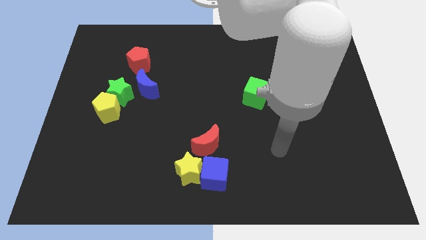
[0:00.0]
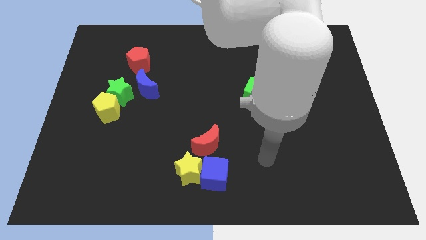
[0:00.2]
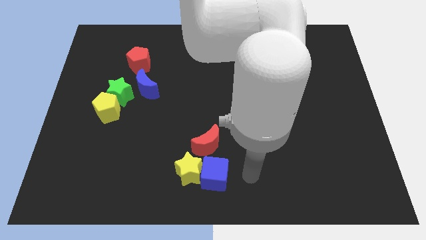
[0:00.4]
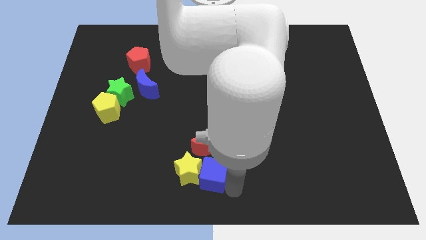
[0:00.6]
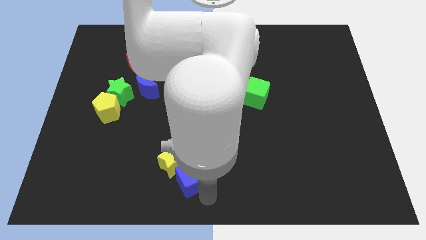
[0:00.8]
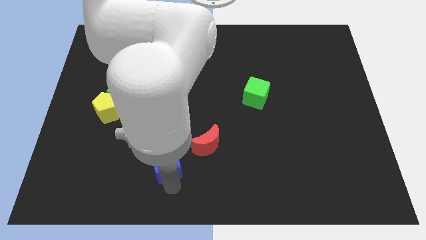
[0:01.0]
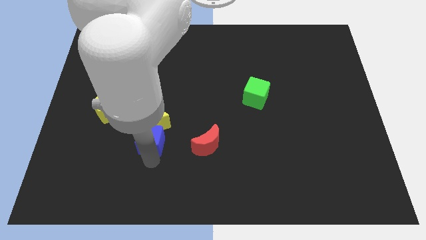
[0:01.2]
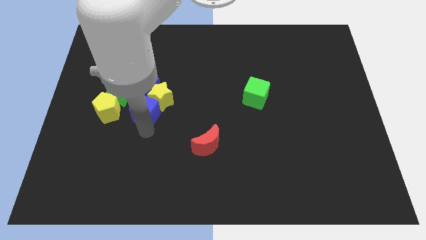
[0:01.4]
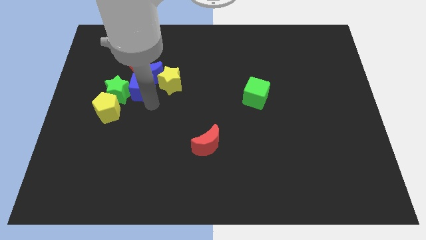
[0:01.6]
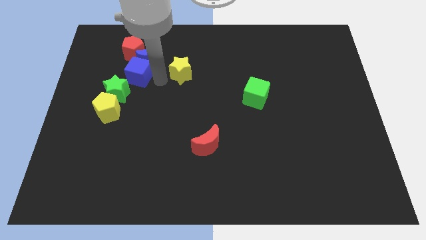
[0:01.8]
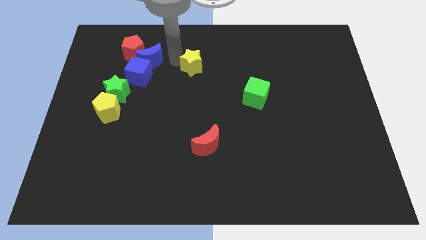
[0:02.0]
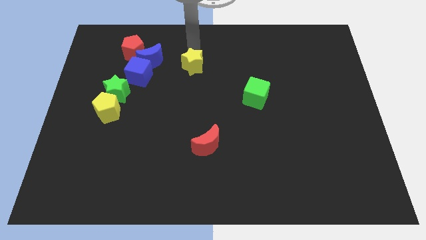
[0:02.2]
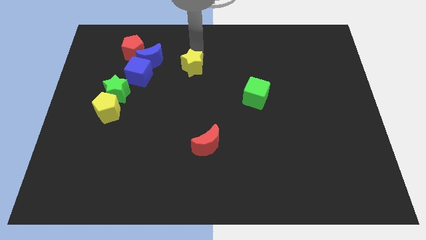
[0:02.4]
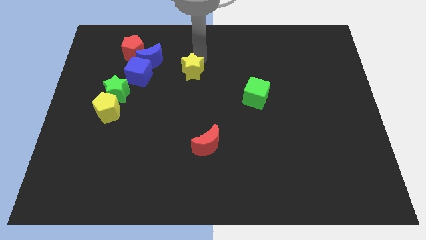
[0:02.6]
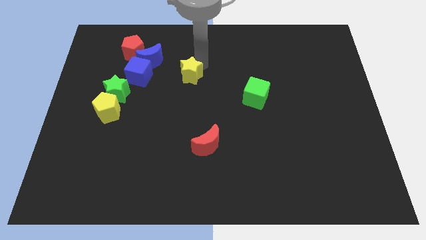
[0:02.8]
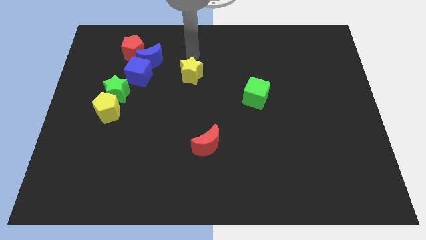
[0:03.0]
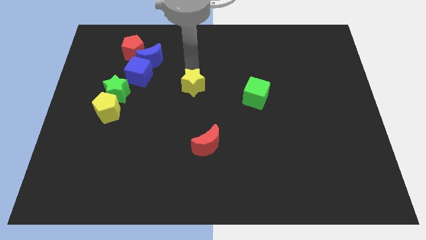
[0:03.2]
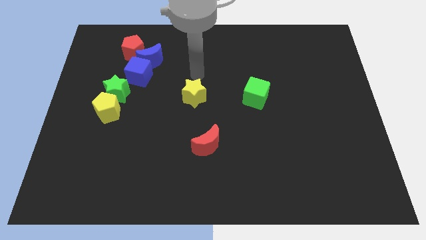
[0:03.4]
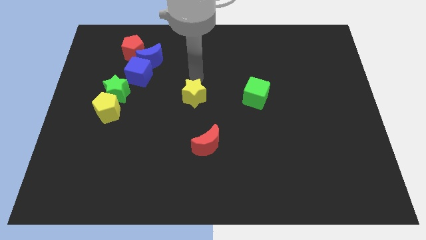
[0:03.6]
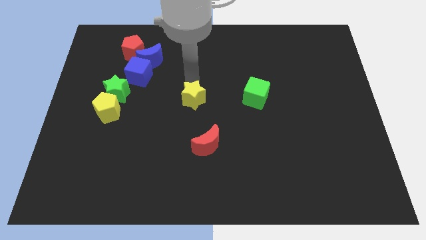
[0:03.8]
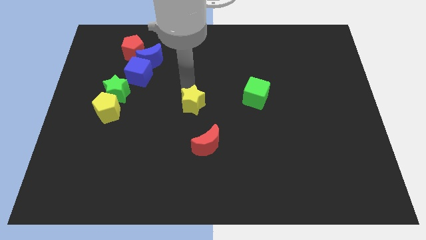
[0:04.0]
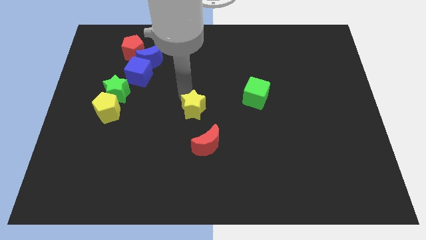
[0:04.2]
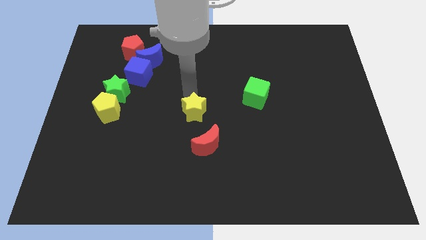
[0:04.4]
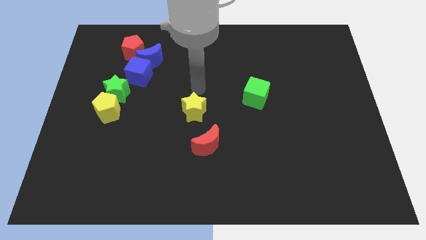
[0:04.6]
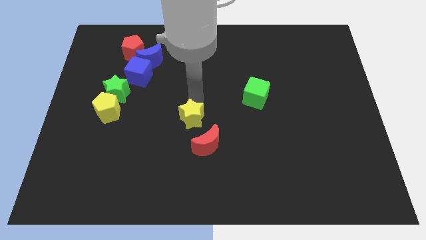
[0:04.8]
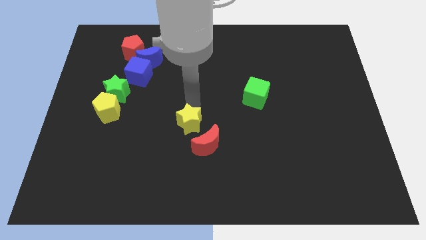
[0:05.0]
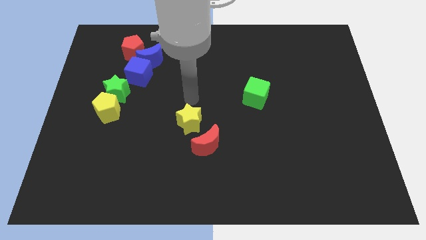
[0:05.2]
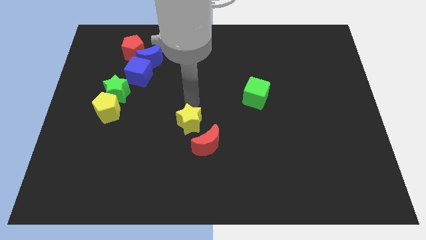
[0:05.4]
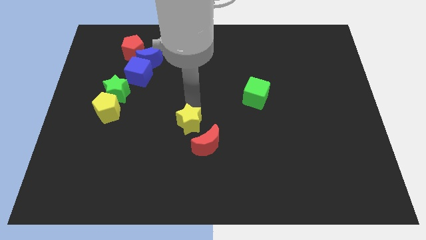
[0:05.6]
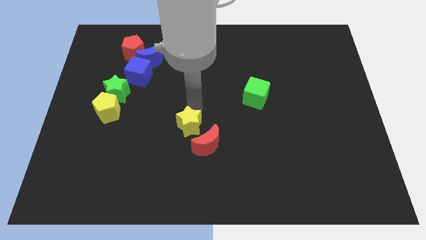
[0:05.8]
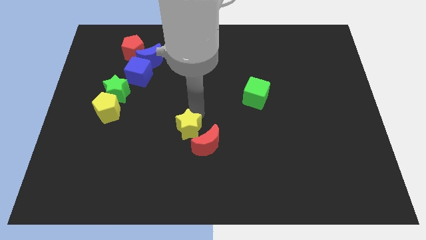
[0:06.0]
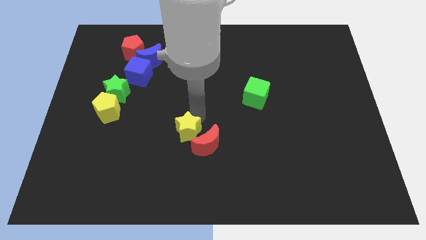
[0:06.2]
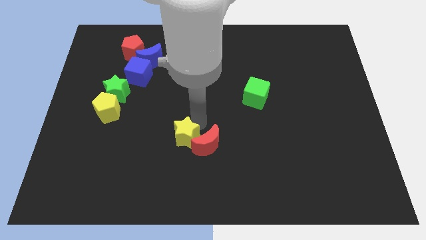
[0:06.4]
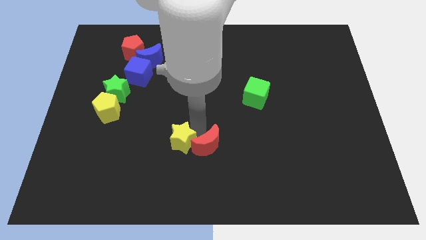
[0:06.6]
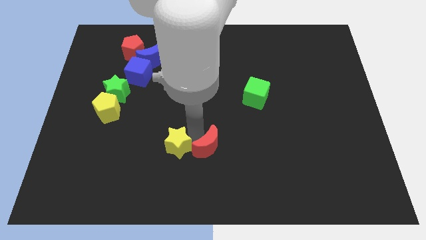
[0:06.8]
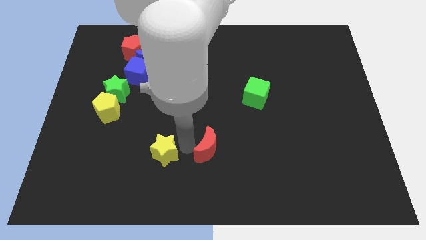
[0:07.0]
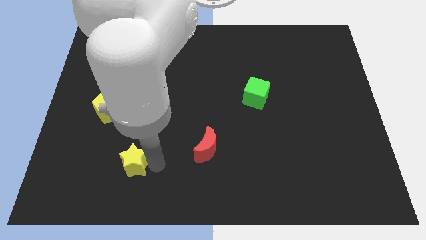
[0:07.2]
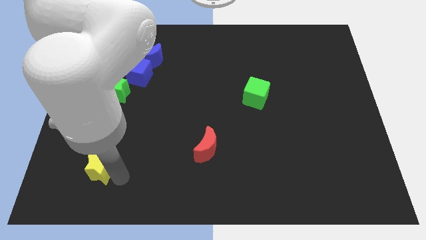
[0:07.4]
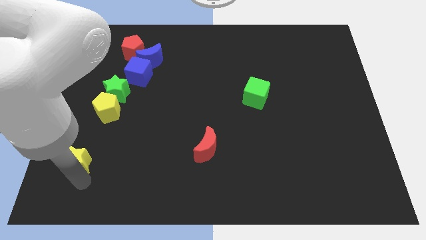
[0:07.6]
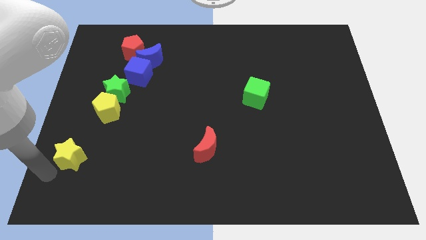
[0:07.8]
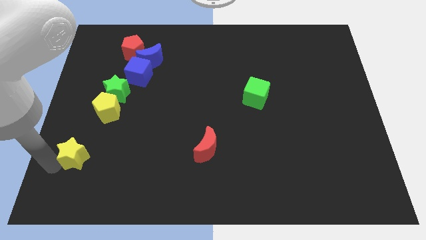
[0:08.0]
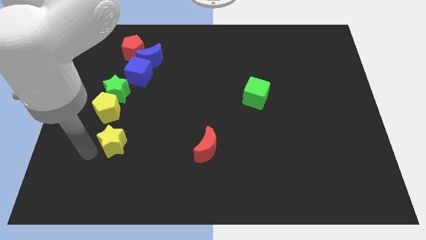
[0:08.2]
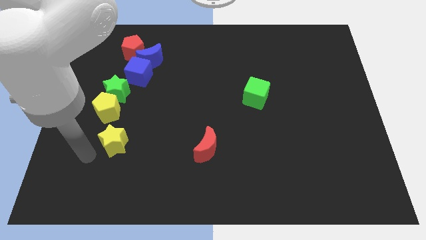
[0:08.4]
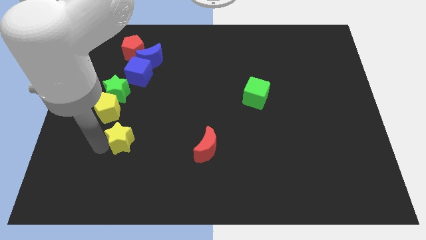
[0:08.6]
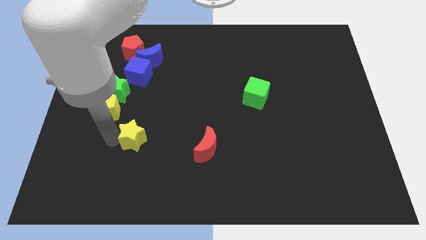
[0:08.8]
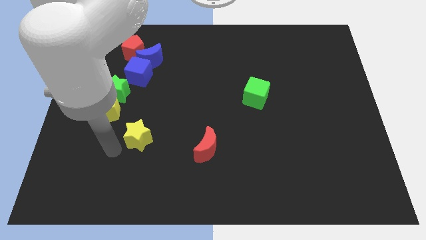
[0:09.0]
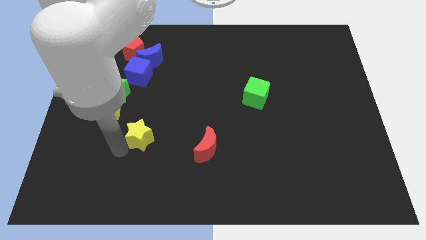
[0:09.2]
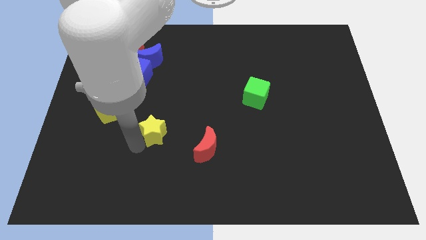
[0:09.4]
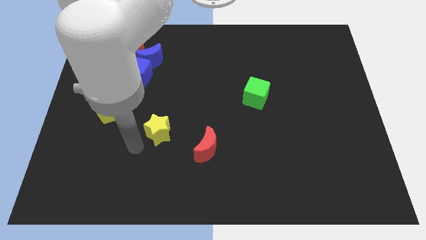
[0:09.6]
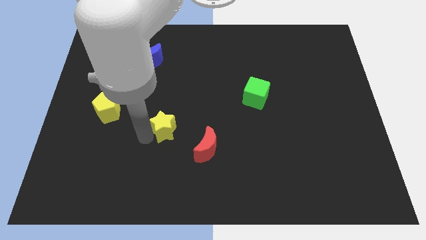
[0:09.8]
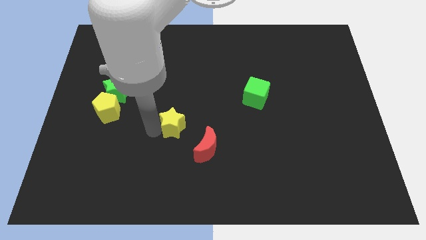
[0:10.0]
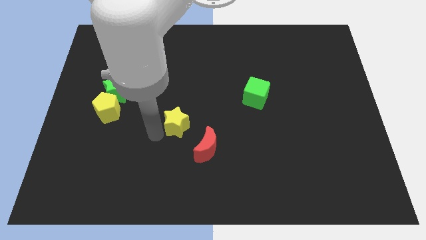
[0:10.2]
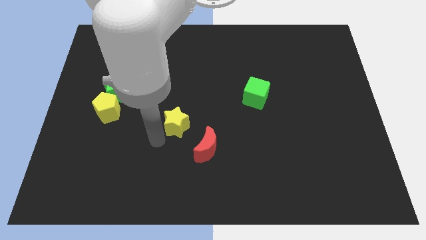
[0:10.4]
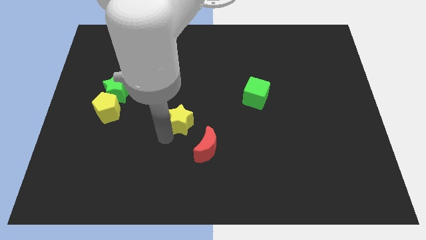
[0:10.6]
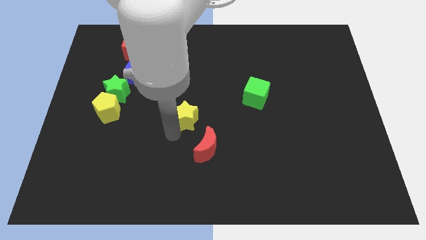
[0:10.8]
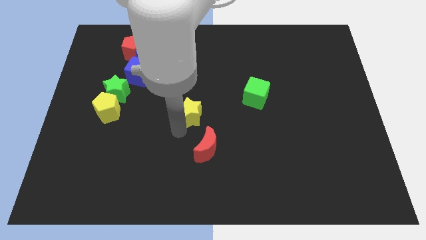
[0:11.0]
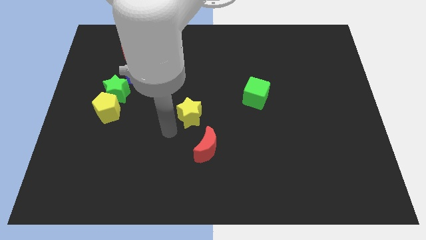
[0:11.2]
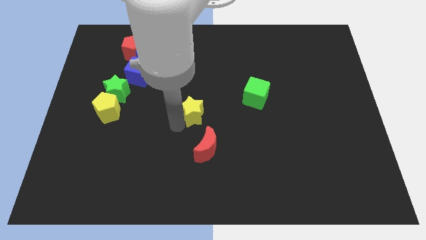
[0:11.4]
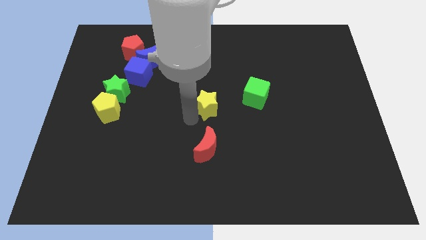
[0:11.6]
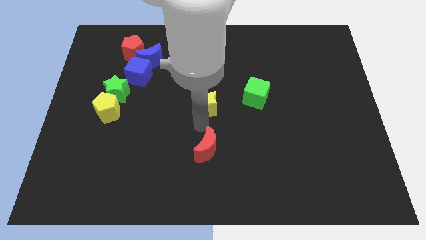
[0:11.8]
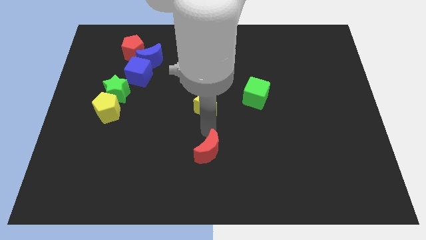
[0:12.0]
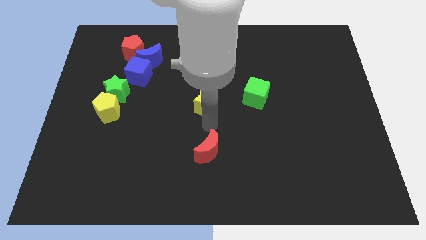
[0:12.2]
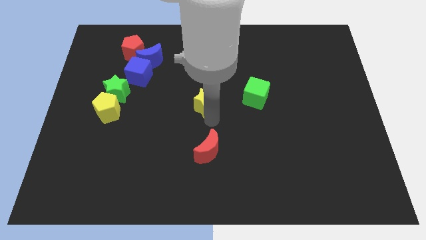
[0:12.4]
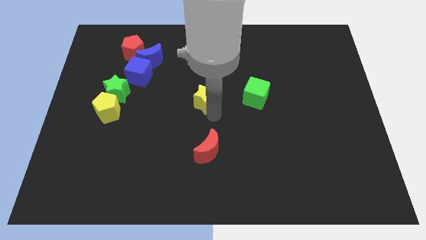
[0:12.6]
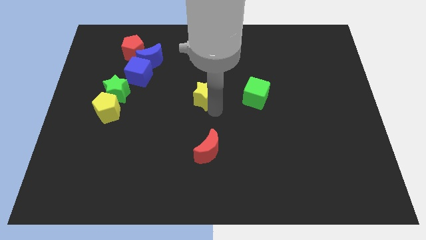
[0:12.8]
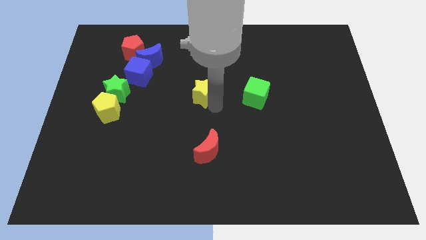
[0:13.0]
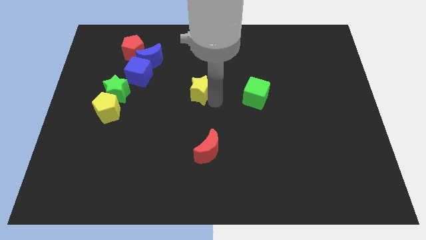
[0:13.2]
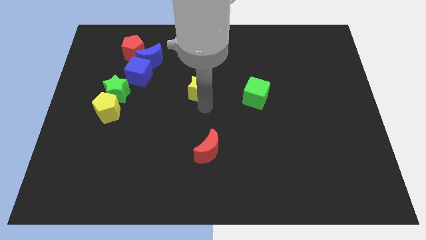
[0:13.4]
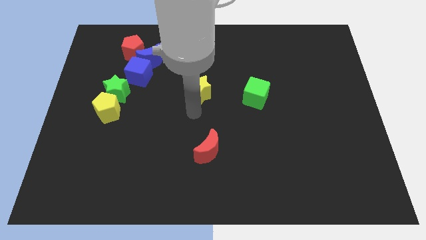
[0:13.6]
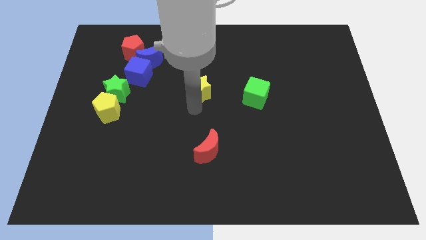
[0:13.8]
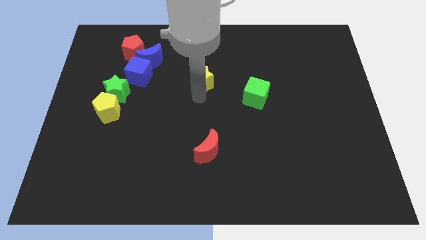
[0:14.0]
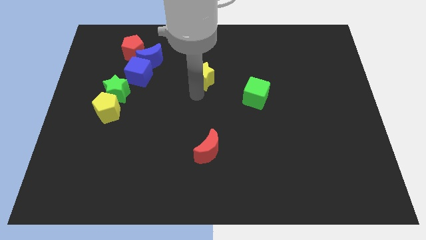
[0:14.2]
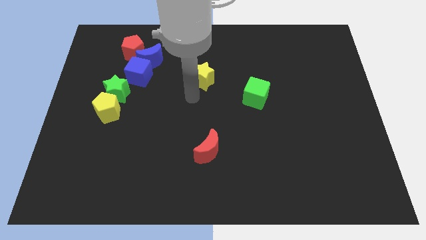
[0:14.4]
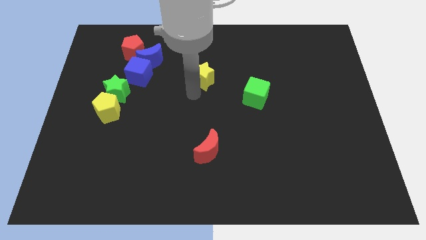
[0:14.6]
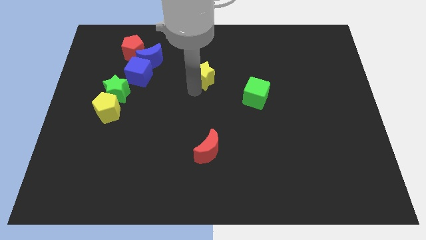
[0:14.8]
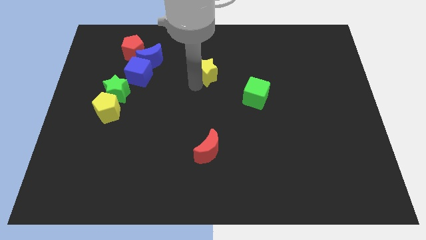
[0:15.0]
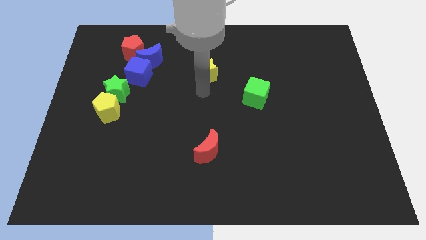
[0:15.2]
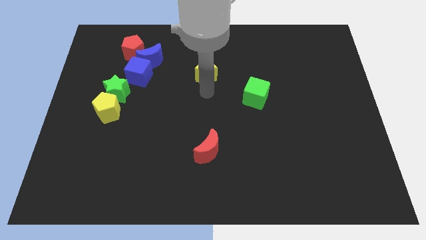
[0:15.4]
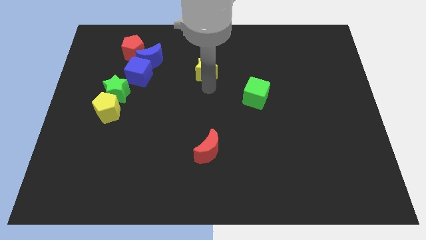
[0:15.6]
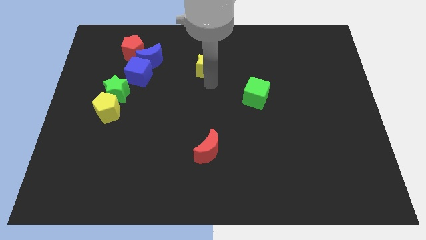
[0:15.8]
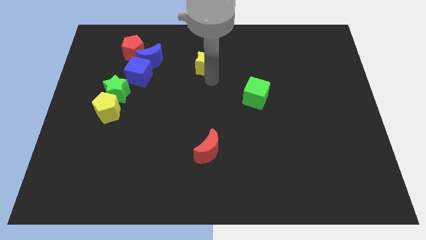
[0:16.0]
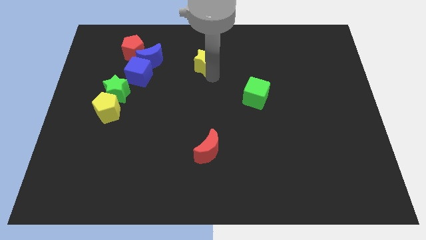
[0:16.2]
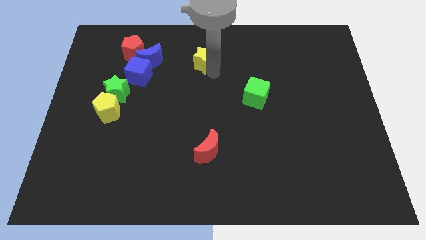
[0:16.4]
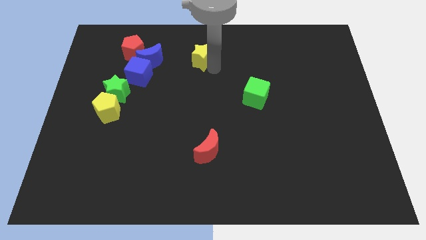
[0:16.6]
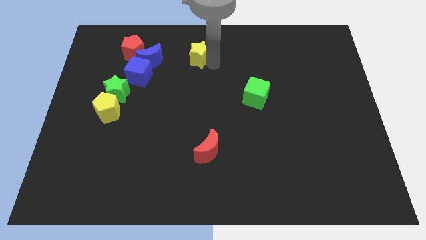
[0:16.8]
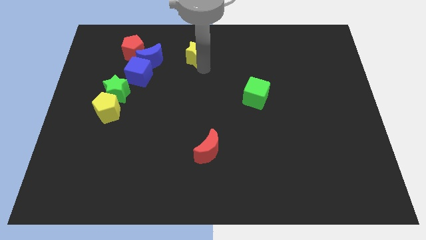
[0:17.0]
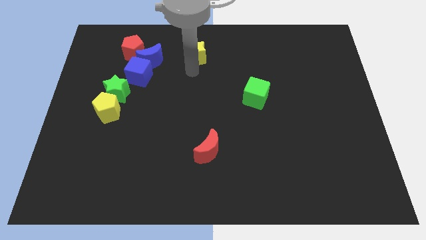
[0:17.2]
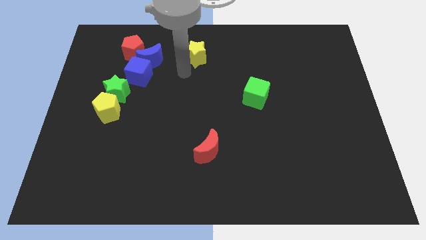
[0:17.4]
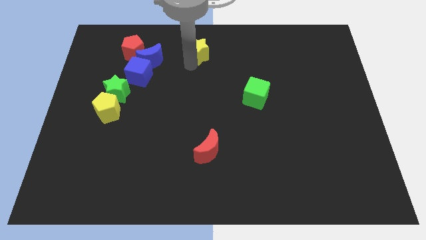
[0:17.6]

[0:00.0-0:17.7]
move the yellow star to the top side
